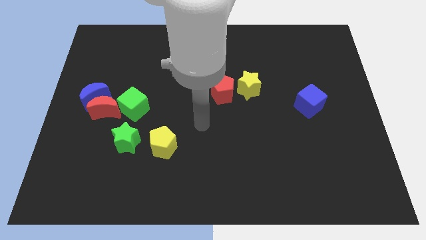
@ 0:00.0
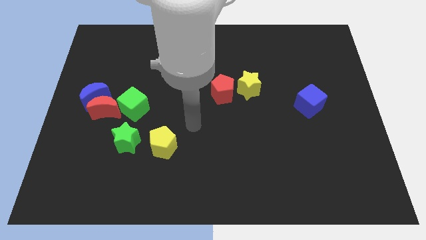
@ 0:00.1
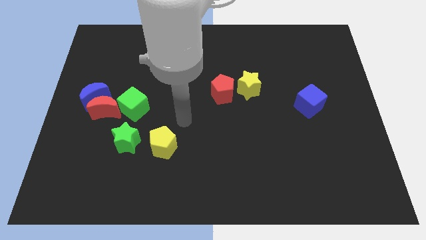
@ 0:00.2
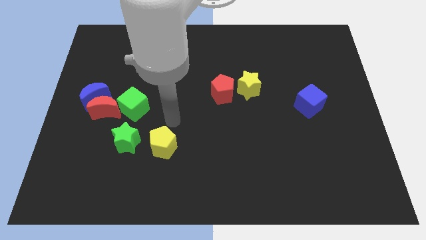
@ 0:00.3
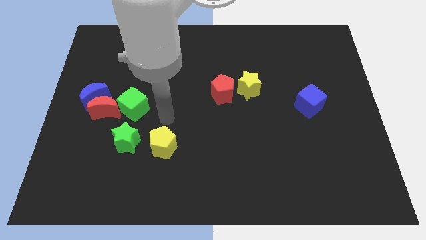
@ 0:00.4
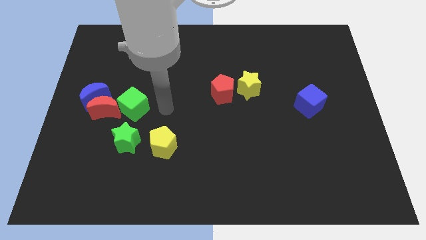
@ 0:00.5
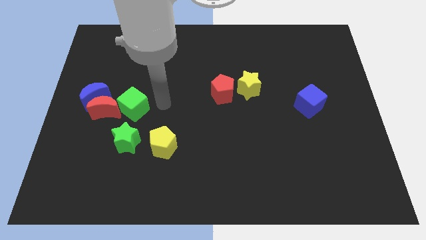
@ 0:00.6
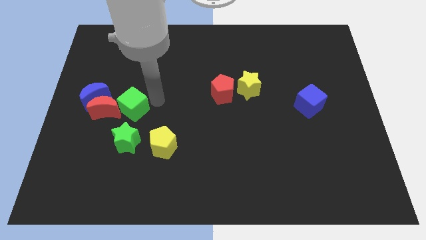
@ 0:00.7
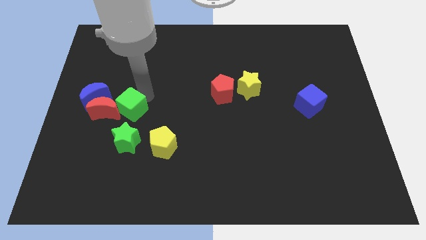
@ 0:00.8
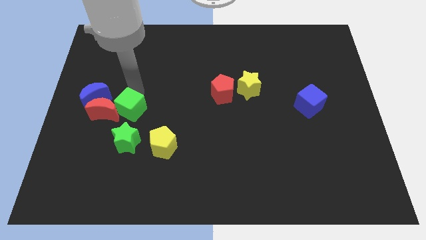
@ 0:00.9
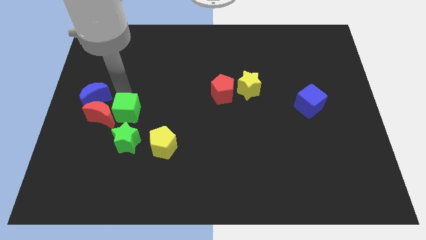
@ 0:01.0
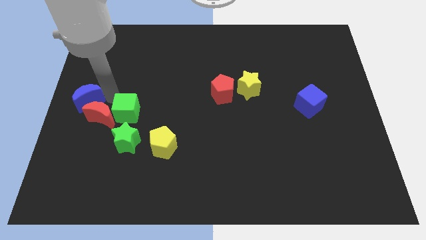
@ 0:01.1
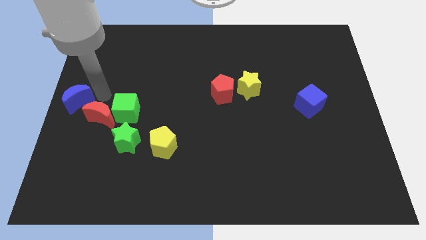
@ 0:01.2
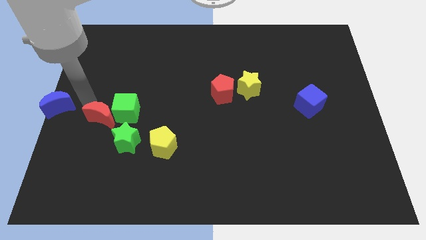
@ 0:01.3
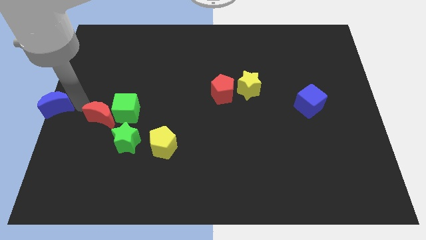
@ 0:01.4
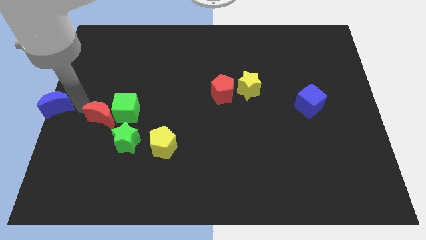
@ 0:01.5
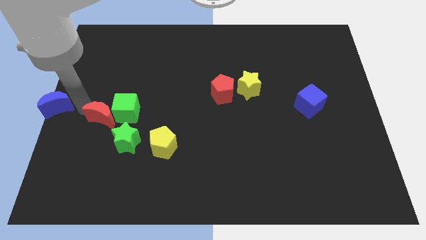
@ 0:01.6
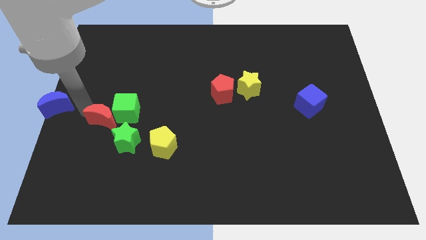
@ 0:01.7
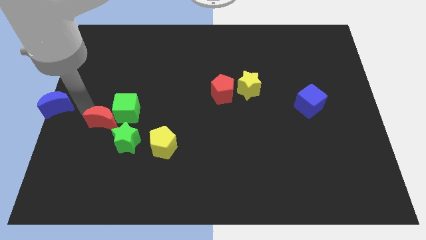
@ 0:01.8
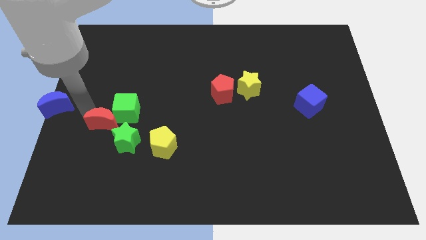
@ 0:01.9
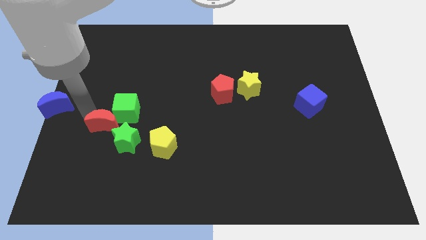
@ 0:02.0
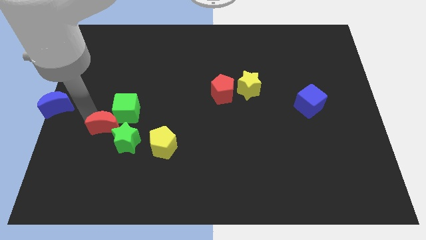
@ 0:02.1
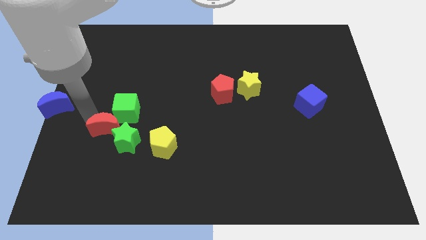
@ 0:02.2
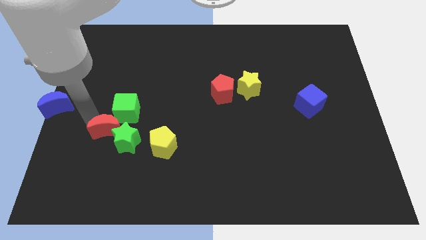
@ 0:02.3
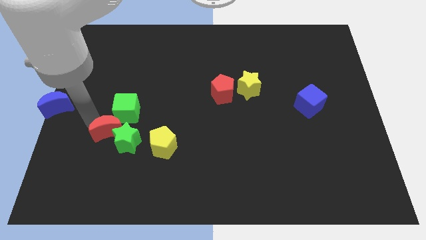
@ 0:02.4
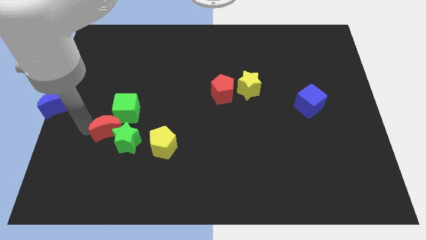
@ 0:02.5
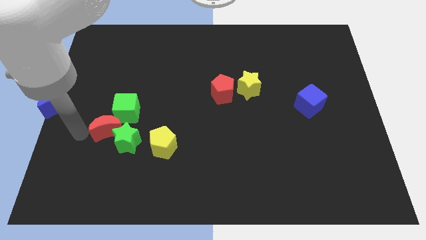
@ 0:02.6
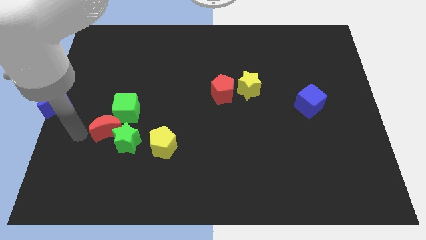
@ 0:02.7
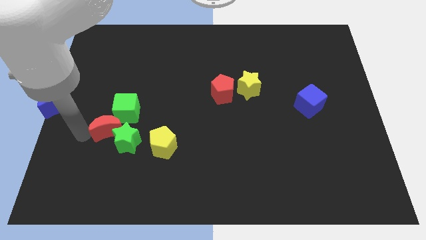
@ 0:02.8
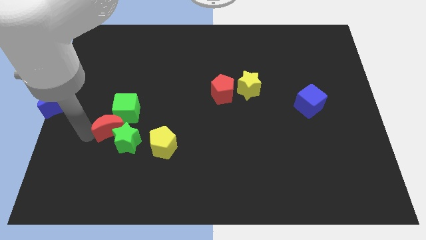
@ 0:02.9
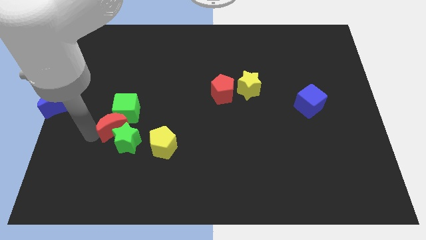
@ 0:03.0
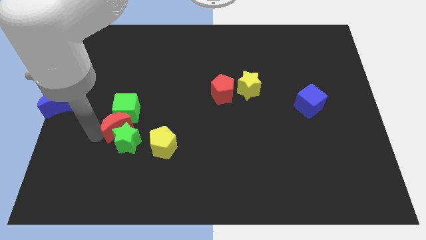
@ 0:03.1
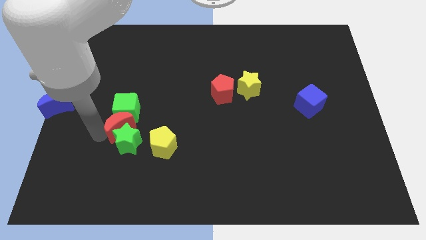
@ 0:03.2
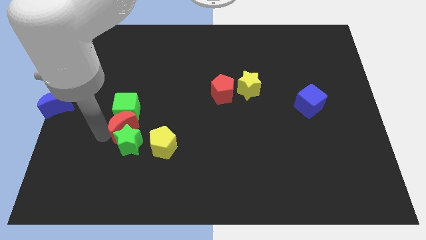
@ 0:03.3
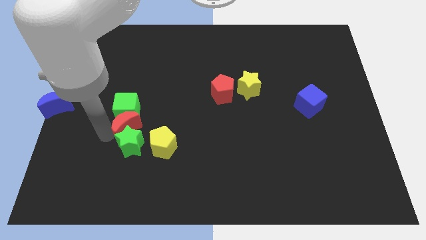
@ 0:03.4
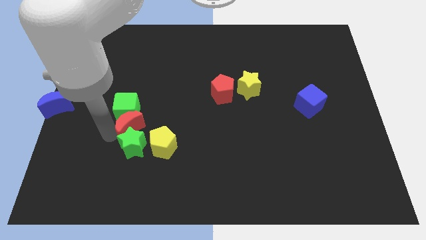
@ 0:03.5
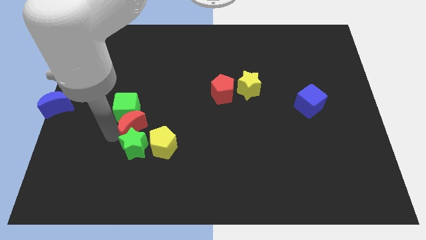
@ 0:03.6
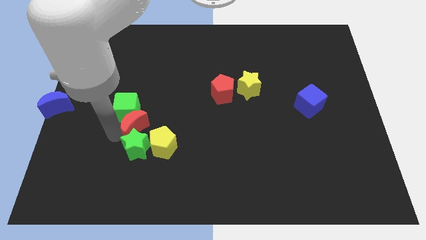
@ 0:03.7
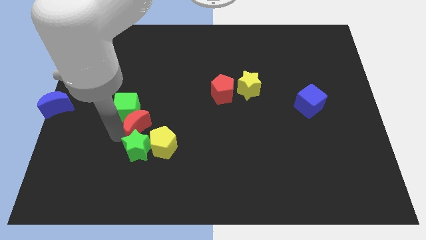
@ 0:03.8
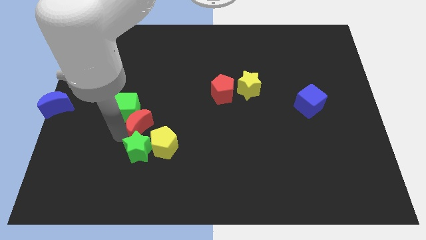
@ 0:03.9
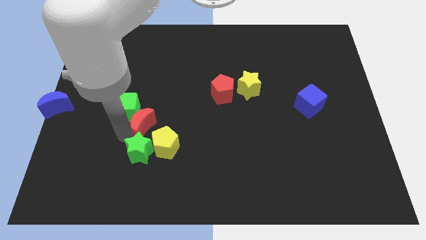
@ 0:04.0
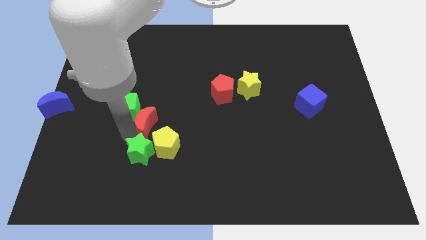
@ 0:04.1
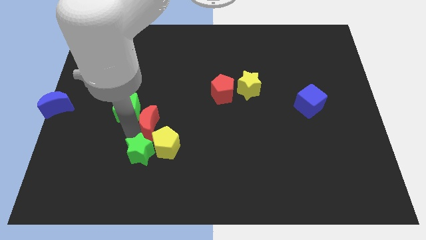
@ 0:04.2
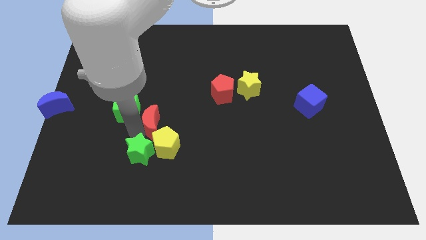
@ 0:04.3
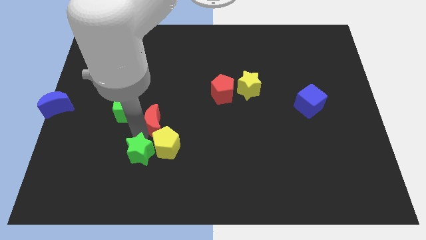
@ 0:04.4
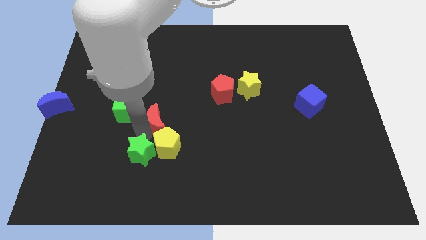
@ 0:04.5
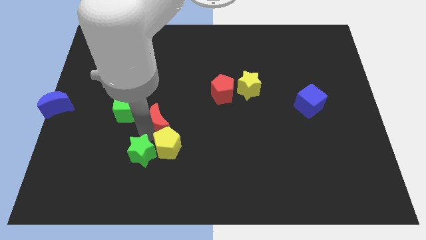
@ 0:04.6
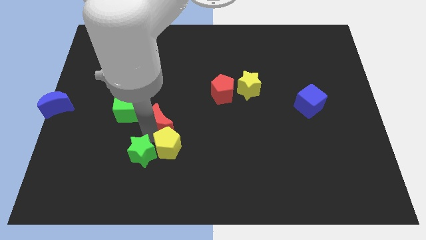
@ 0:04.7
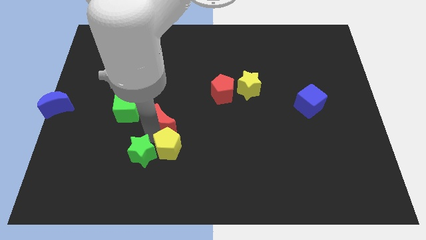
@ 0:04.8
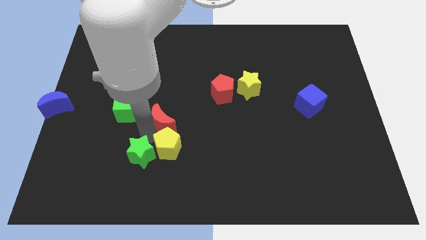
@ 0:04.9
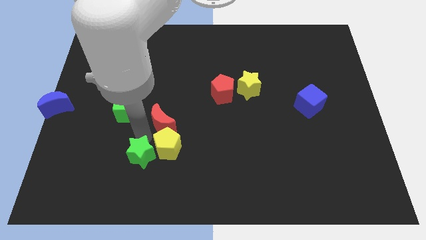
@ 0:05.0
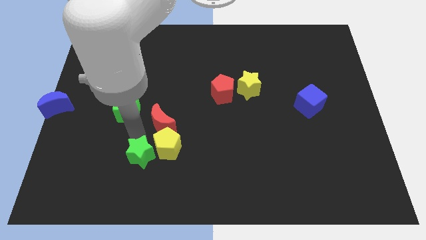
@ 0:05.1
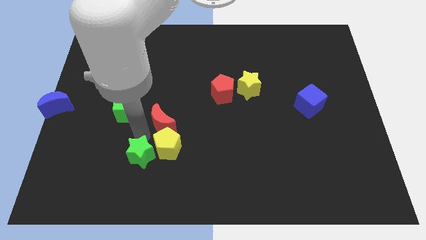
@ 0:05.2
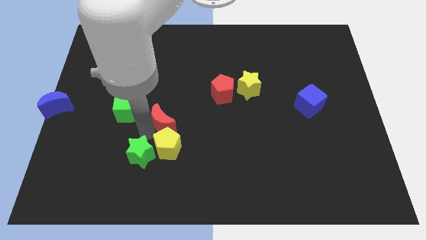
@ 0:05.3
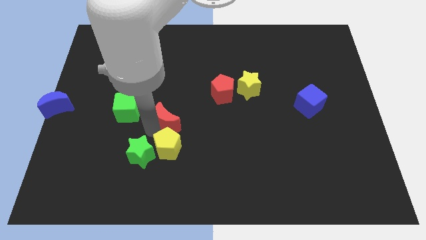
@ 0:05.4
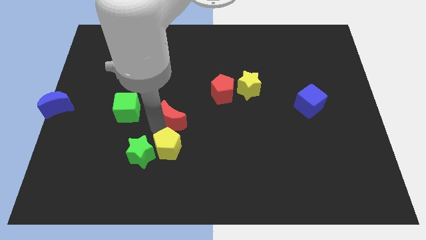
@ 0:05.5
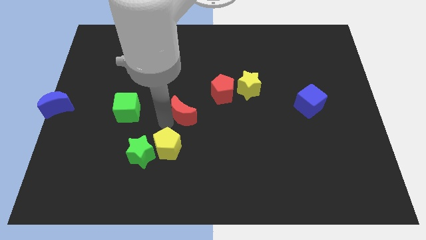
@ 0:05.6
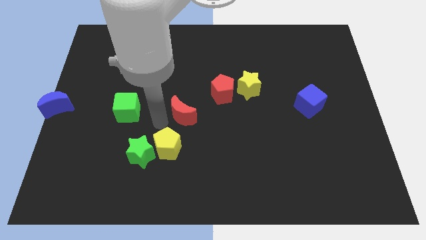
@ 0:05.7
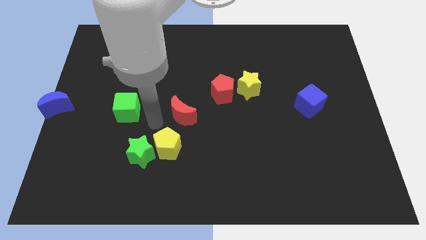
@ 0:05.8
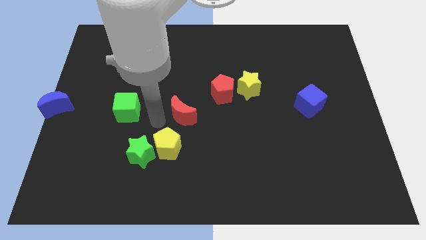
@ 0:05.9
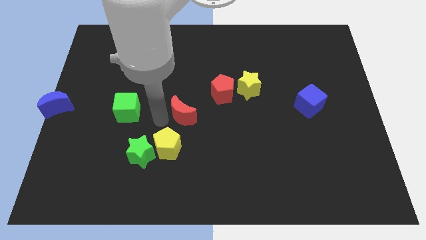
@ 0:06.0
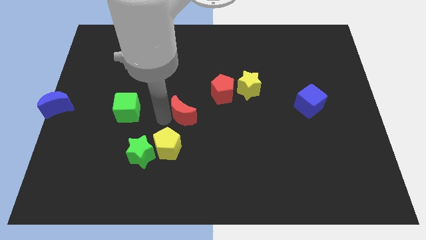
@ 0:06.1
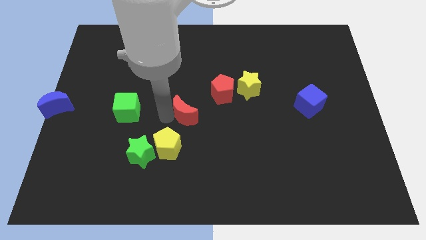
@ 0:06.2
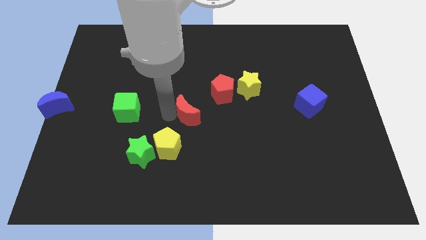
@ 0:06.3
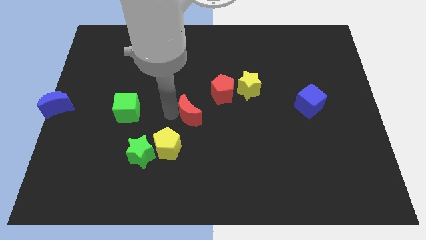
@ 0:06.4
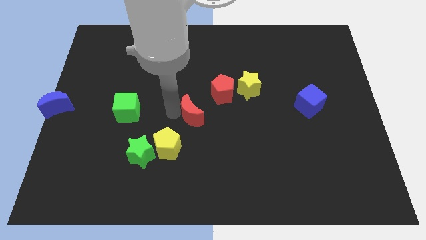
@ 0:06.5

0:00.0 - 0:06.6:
slide the red moon right

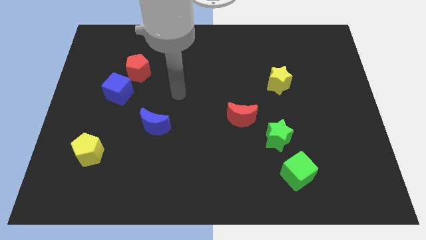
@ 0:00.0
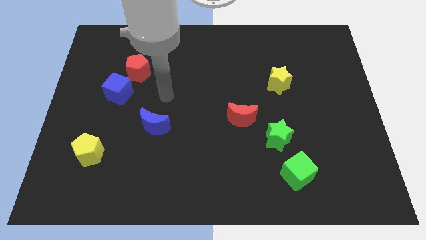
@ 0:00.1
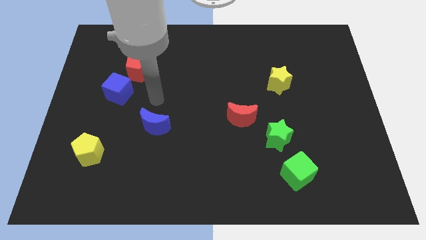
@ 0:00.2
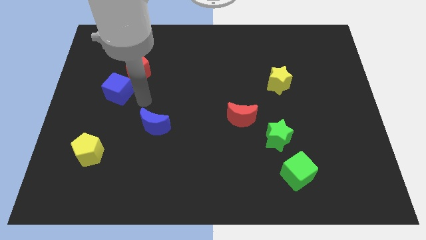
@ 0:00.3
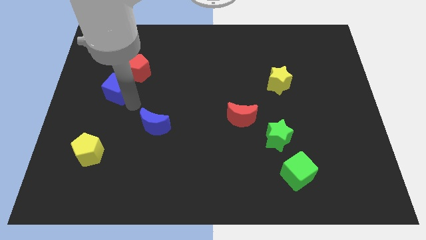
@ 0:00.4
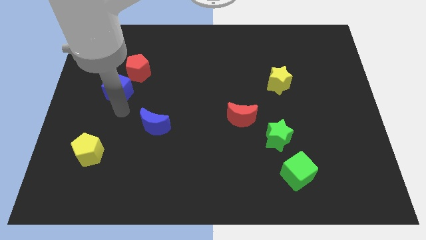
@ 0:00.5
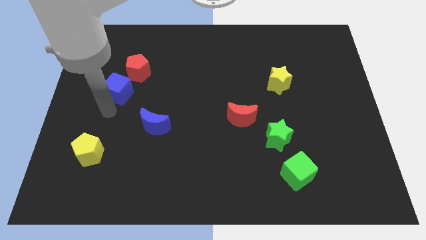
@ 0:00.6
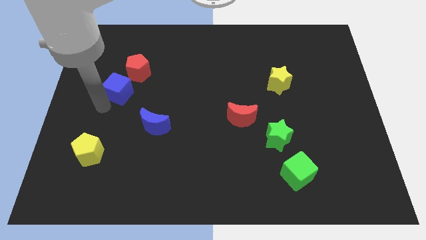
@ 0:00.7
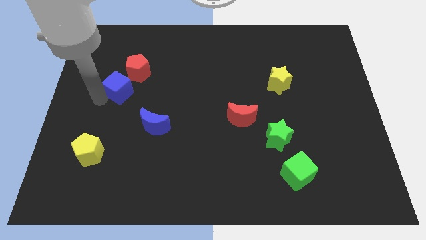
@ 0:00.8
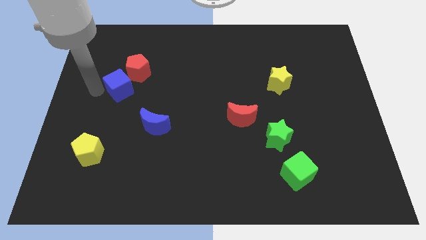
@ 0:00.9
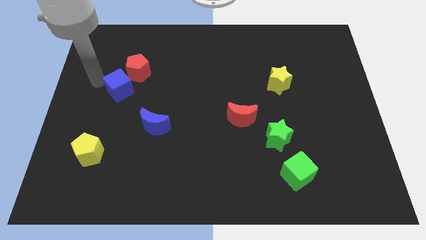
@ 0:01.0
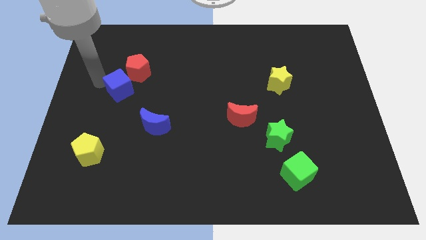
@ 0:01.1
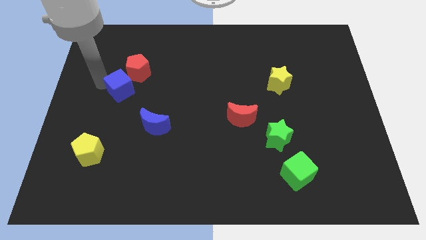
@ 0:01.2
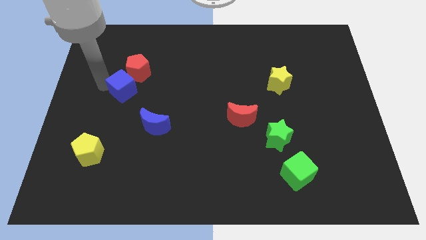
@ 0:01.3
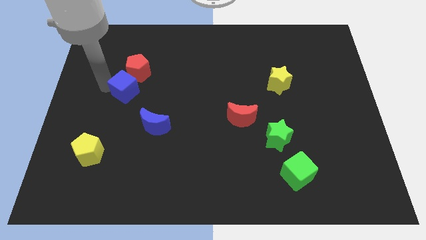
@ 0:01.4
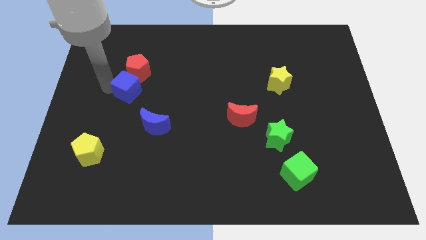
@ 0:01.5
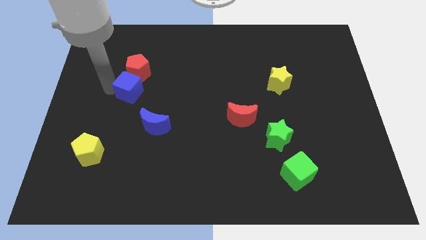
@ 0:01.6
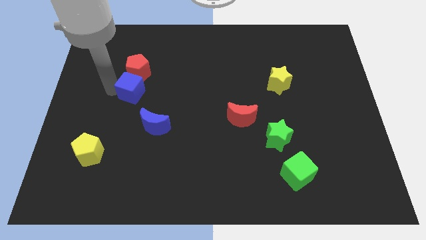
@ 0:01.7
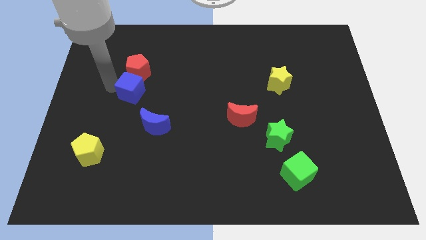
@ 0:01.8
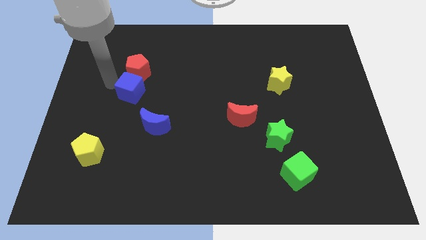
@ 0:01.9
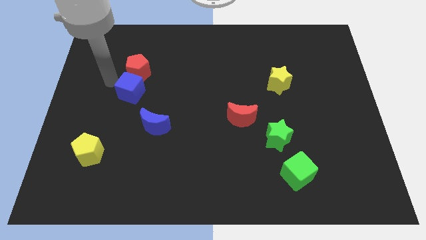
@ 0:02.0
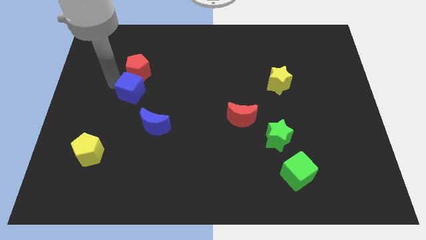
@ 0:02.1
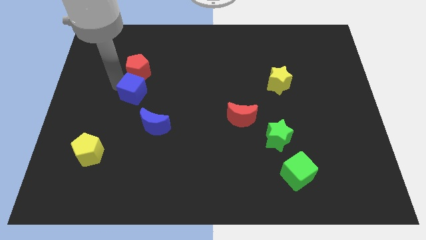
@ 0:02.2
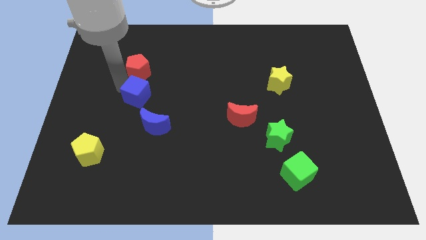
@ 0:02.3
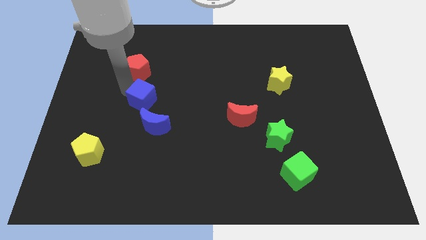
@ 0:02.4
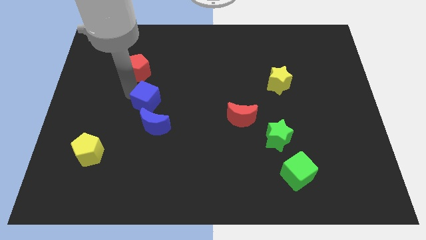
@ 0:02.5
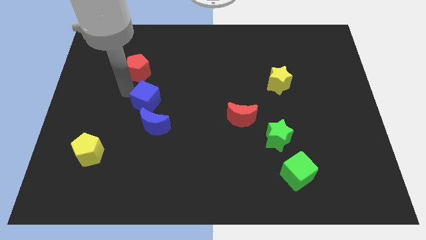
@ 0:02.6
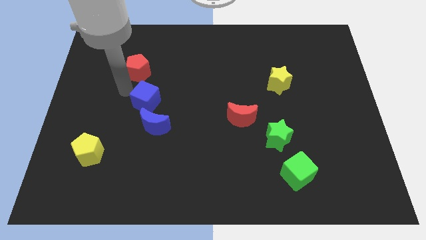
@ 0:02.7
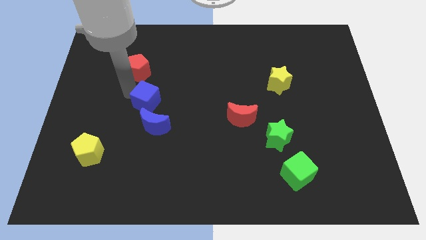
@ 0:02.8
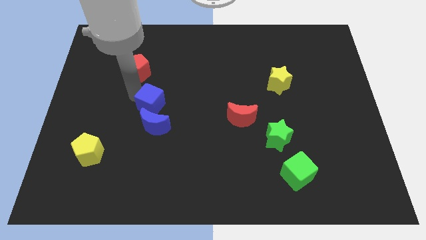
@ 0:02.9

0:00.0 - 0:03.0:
move the blue cube diagonally downwards and right slightly
